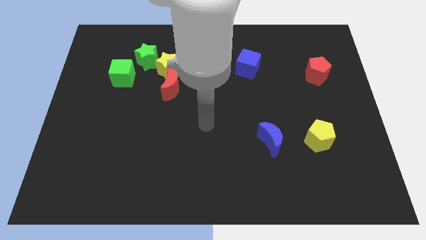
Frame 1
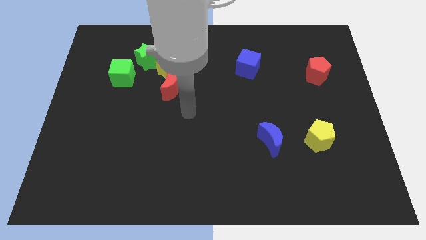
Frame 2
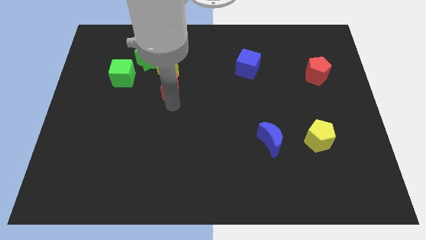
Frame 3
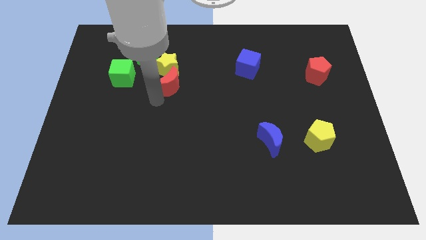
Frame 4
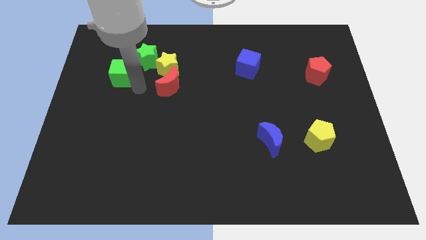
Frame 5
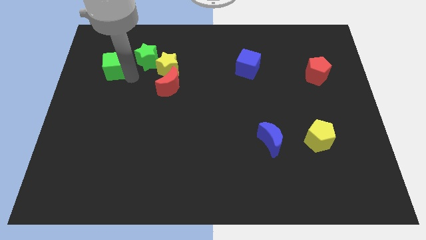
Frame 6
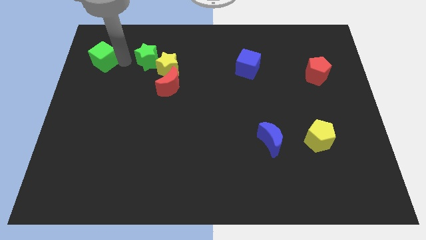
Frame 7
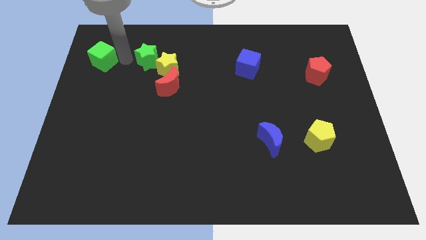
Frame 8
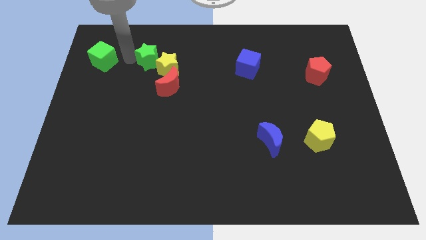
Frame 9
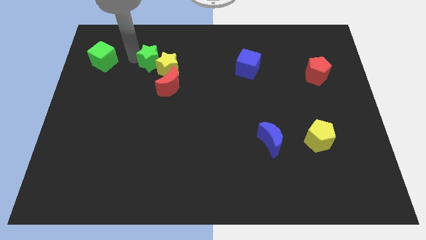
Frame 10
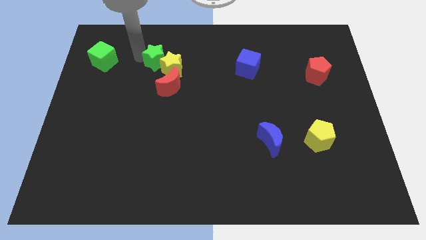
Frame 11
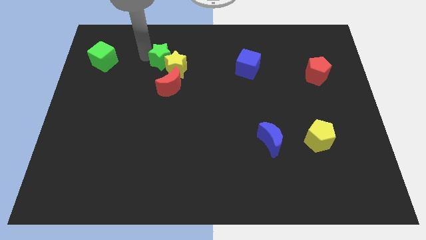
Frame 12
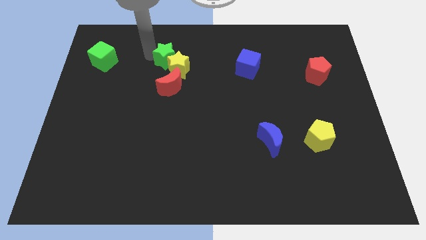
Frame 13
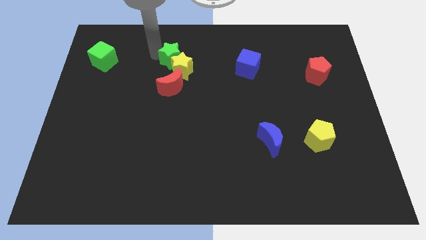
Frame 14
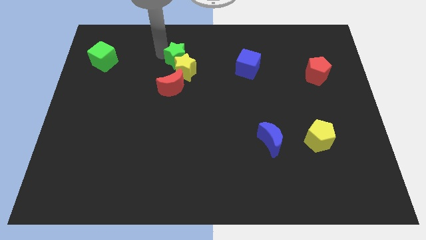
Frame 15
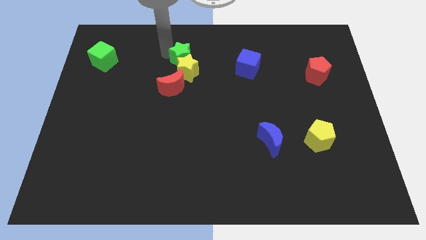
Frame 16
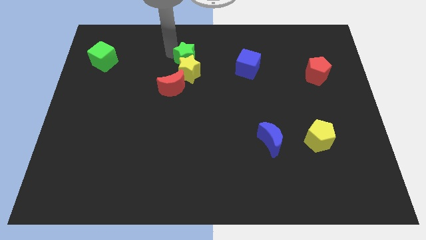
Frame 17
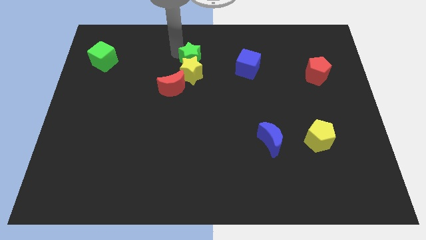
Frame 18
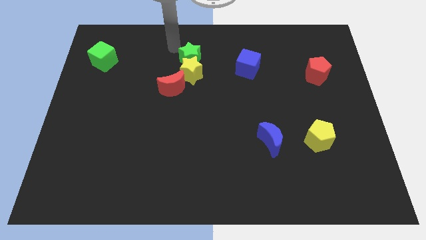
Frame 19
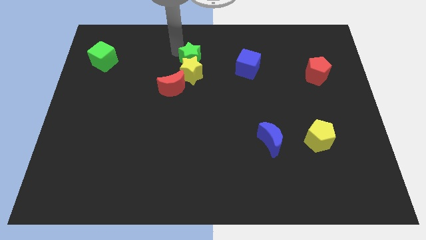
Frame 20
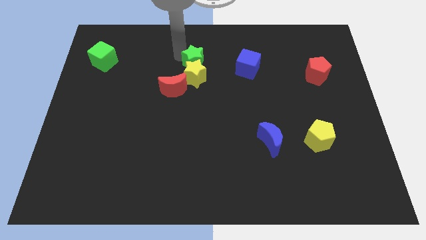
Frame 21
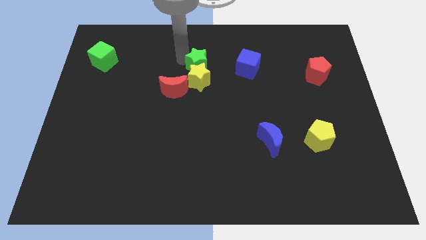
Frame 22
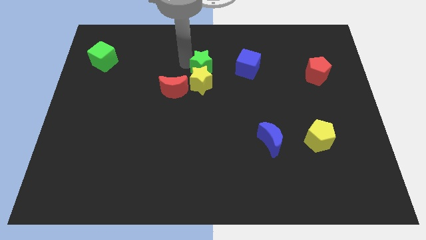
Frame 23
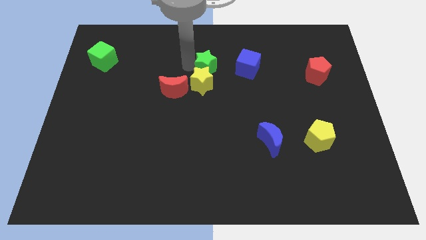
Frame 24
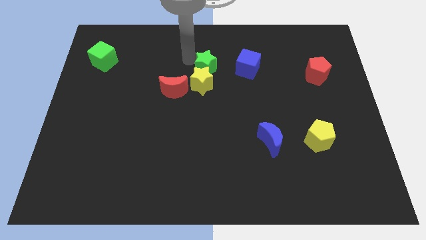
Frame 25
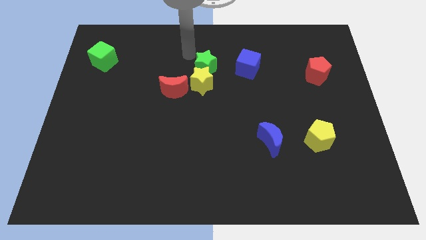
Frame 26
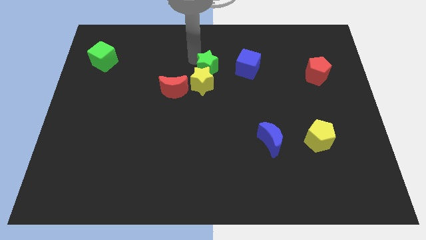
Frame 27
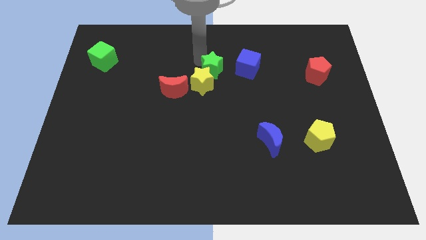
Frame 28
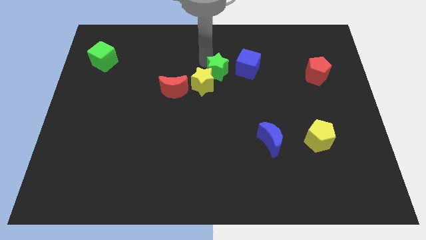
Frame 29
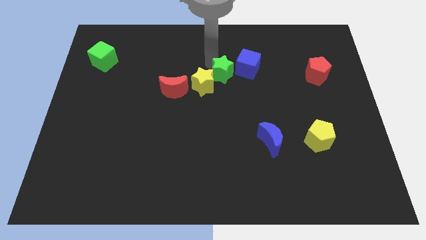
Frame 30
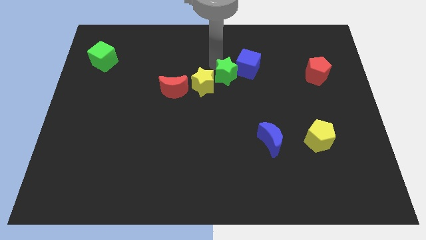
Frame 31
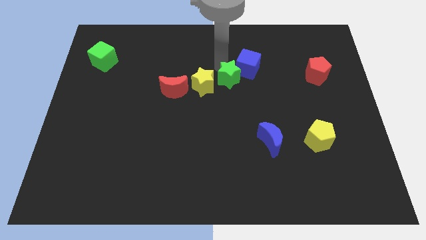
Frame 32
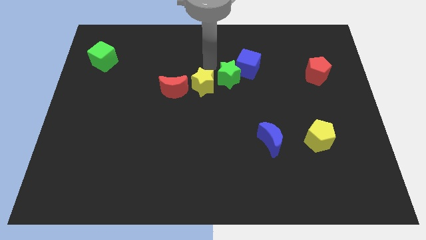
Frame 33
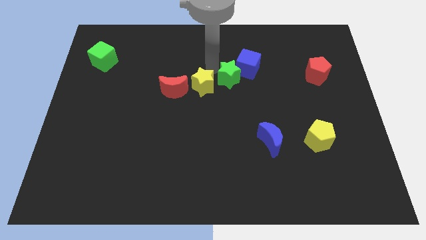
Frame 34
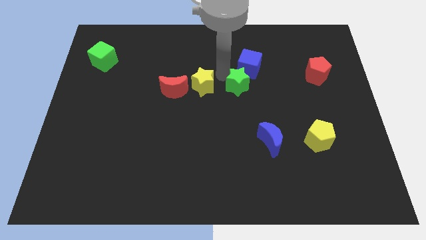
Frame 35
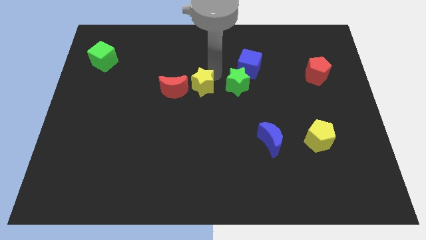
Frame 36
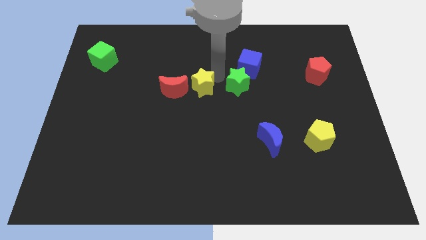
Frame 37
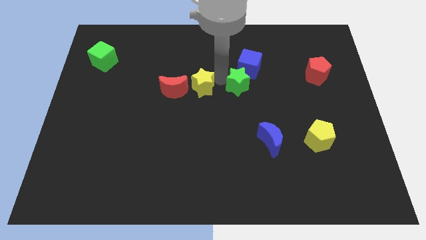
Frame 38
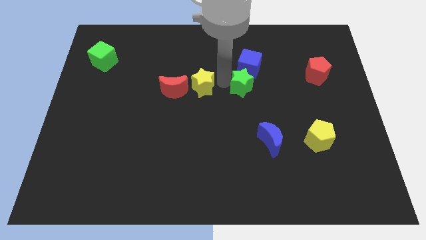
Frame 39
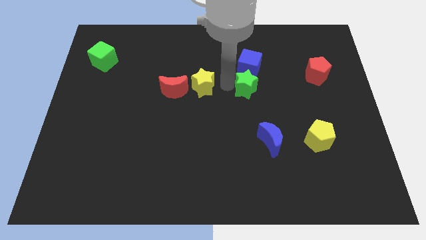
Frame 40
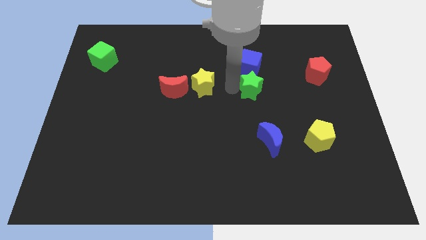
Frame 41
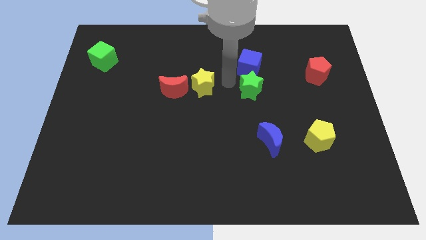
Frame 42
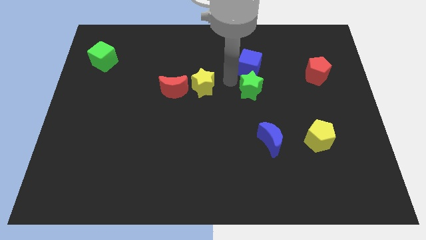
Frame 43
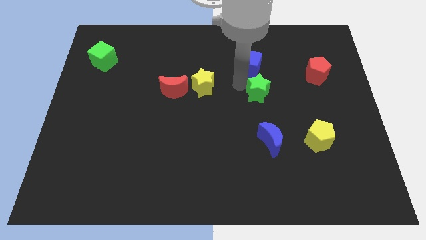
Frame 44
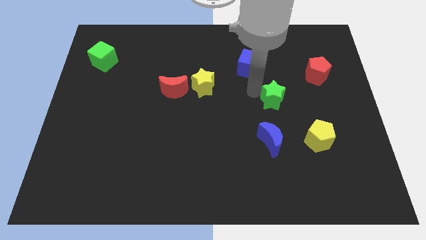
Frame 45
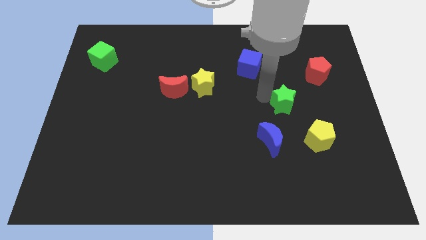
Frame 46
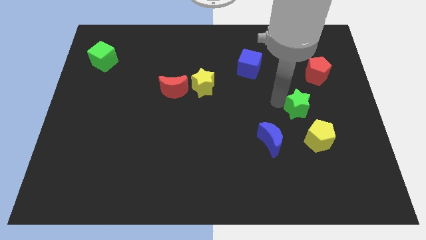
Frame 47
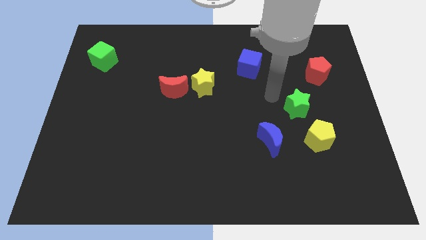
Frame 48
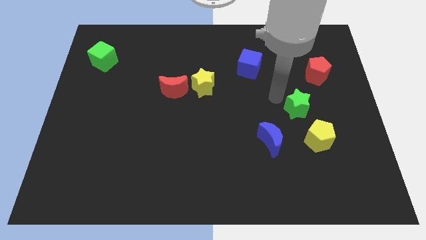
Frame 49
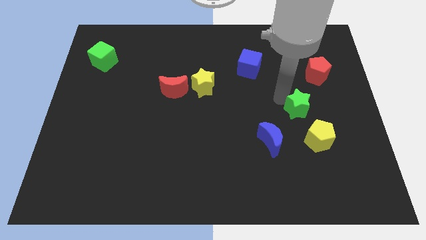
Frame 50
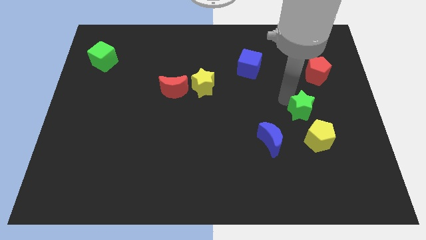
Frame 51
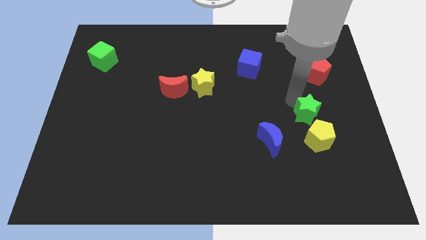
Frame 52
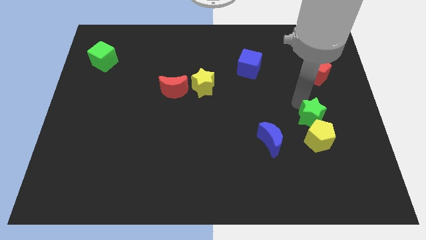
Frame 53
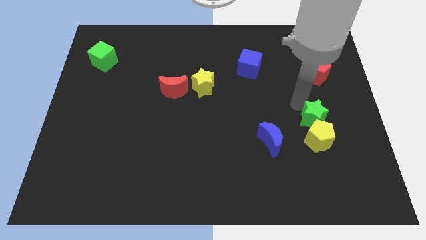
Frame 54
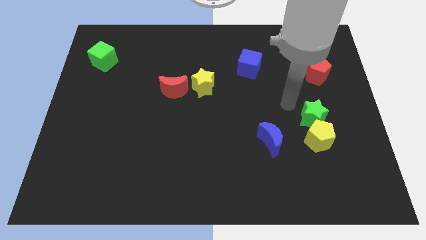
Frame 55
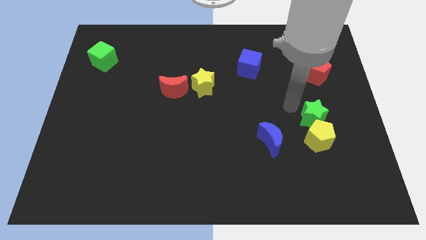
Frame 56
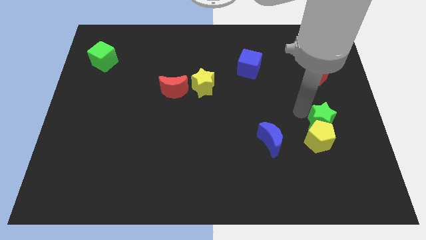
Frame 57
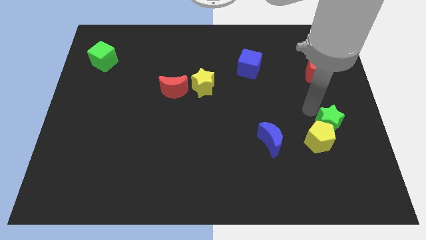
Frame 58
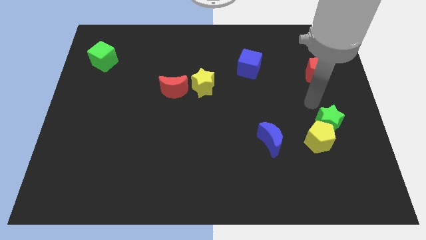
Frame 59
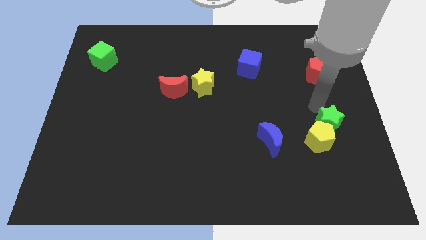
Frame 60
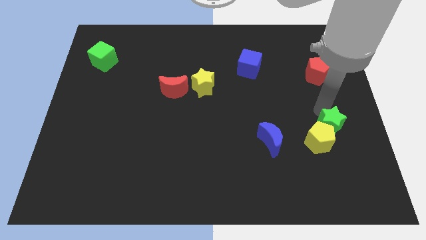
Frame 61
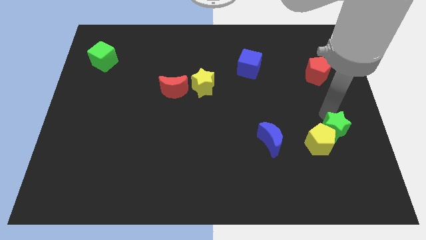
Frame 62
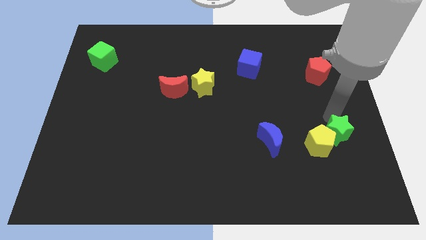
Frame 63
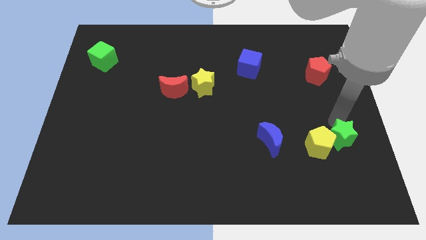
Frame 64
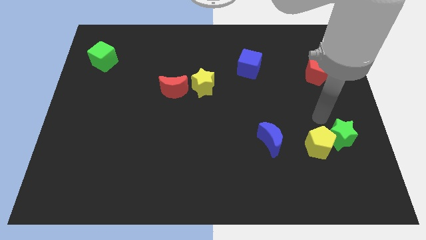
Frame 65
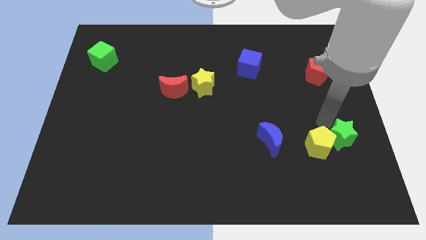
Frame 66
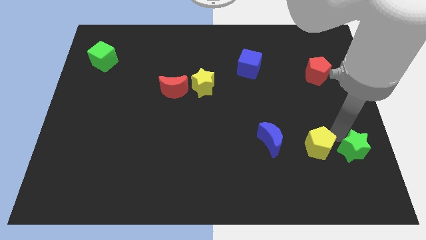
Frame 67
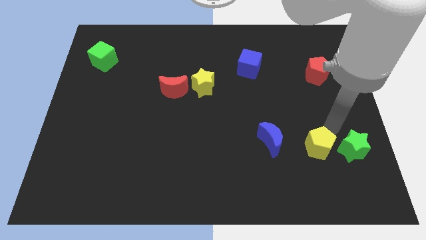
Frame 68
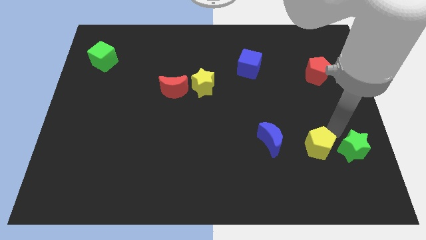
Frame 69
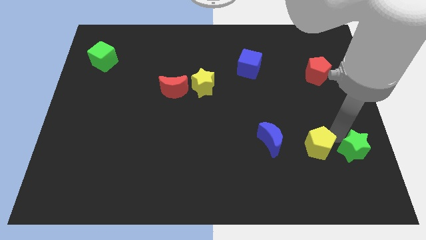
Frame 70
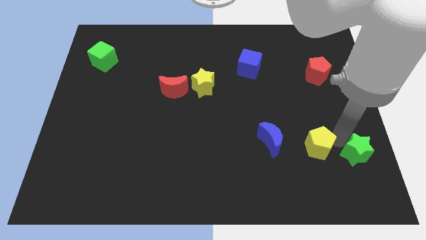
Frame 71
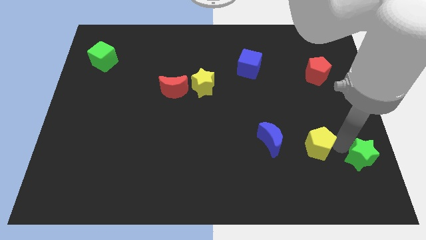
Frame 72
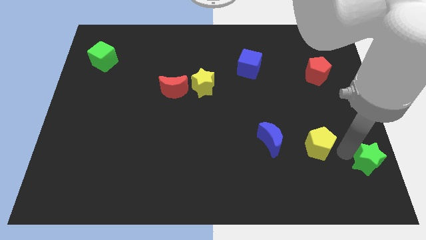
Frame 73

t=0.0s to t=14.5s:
move the green star to the lower right corner
